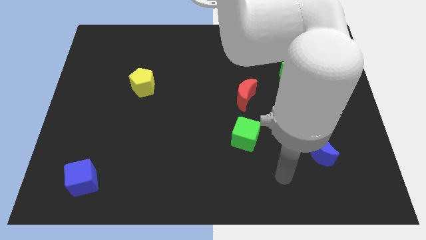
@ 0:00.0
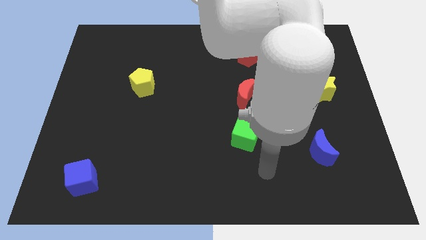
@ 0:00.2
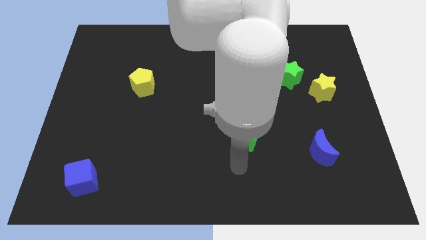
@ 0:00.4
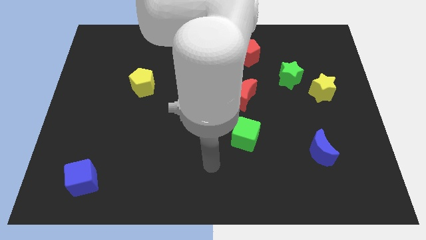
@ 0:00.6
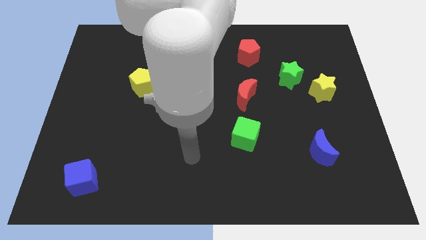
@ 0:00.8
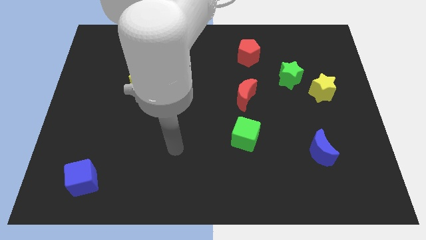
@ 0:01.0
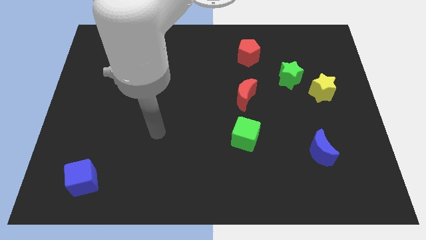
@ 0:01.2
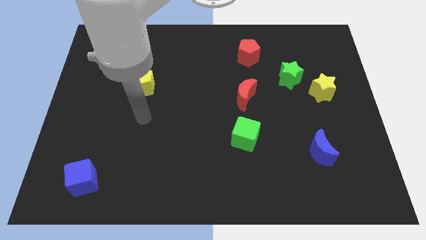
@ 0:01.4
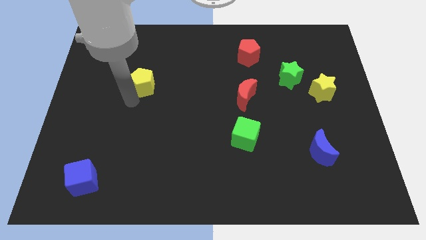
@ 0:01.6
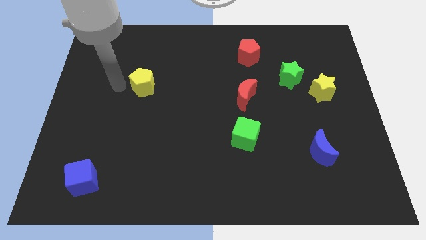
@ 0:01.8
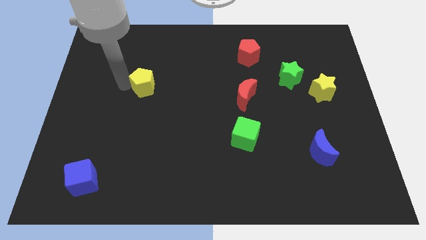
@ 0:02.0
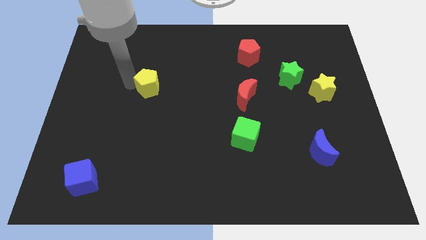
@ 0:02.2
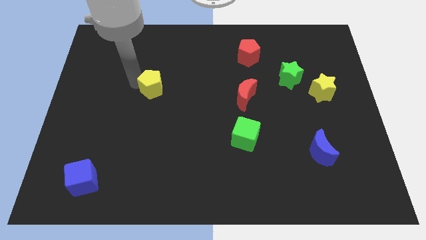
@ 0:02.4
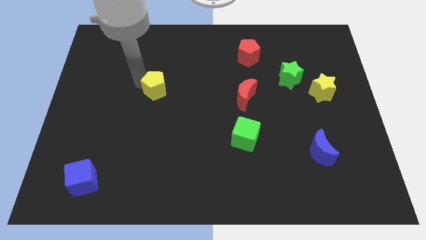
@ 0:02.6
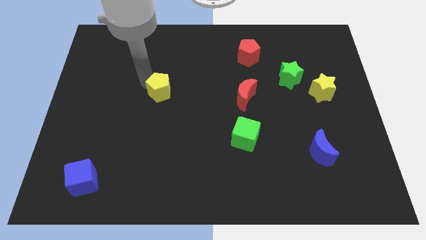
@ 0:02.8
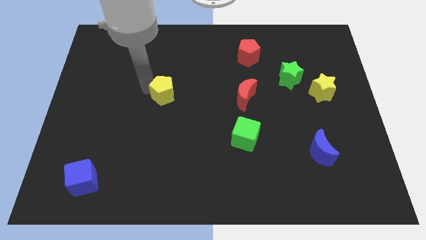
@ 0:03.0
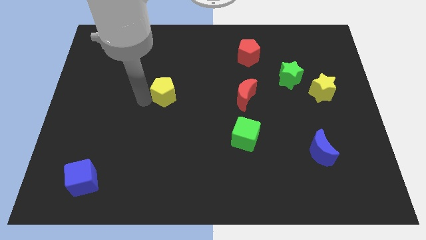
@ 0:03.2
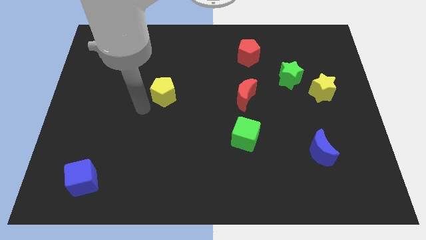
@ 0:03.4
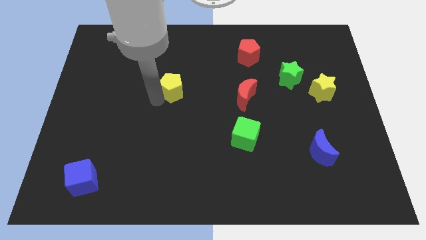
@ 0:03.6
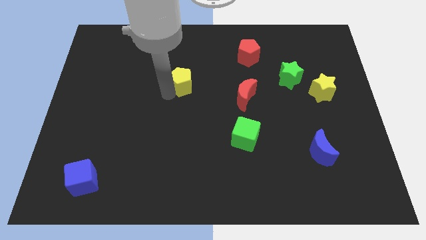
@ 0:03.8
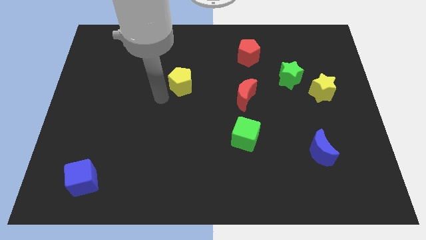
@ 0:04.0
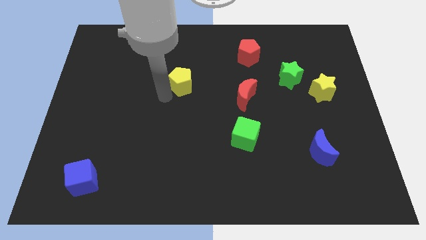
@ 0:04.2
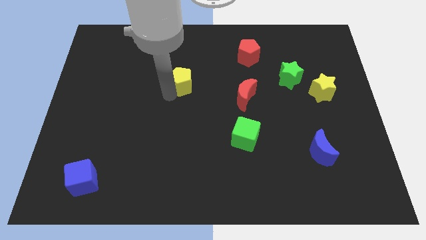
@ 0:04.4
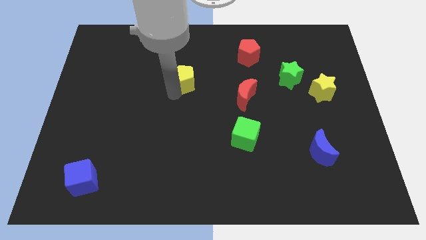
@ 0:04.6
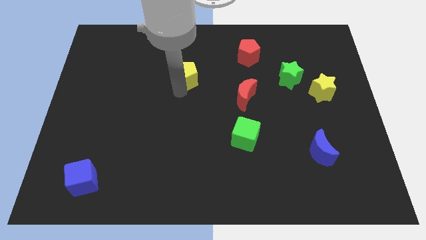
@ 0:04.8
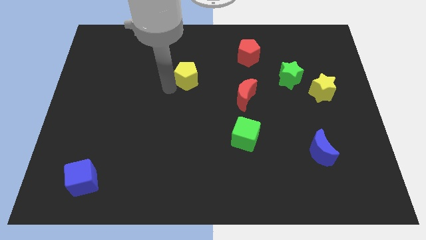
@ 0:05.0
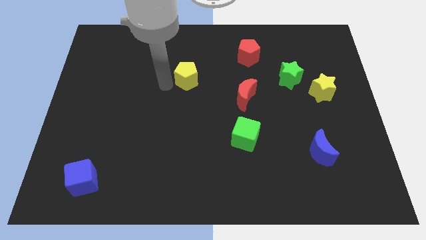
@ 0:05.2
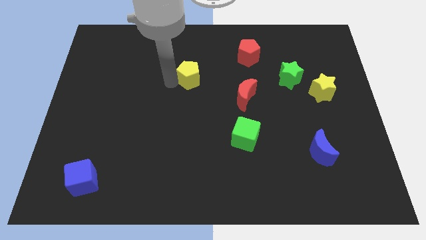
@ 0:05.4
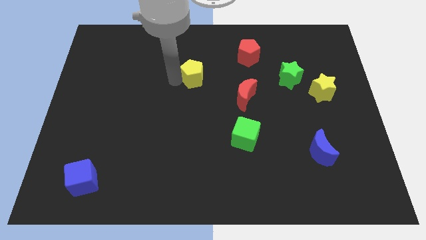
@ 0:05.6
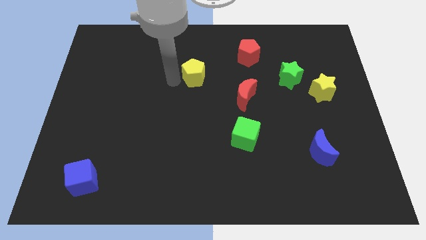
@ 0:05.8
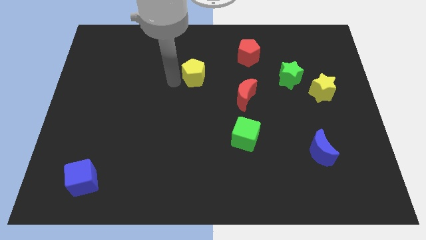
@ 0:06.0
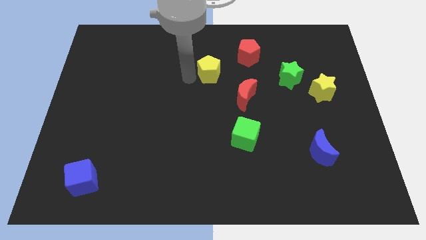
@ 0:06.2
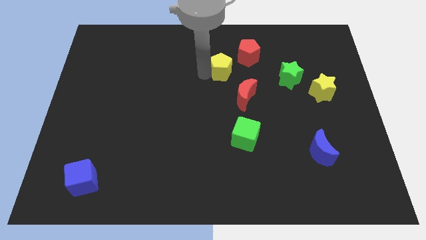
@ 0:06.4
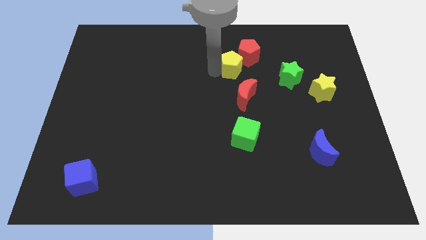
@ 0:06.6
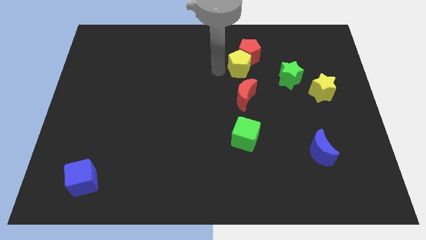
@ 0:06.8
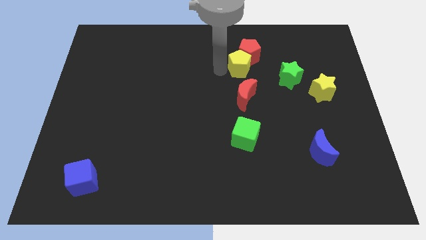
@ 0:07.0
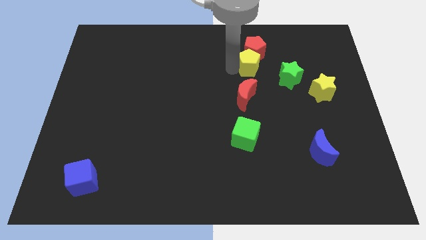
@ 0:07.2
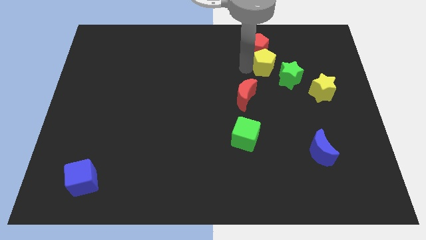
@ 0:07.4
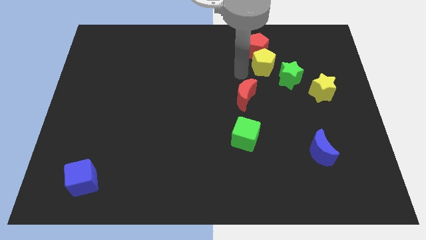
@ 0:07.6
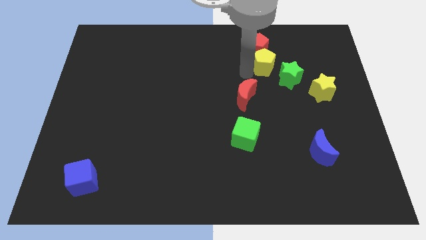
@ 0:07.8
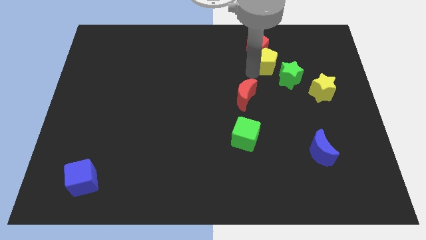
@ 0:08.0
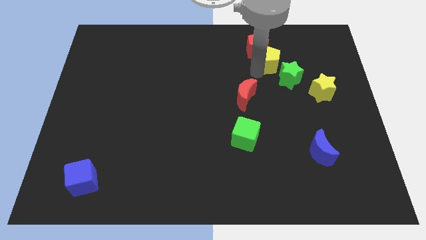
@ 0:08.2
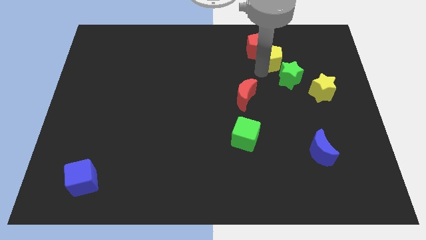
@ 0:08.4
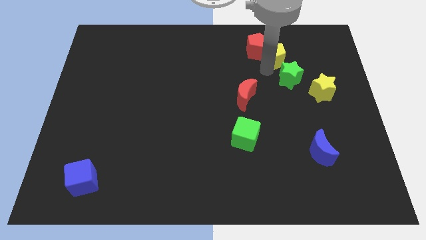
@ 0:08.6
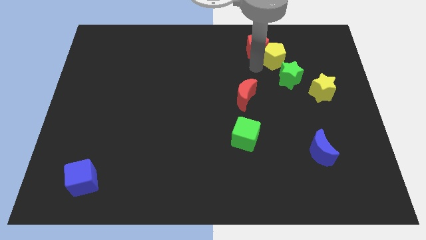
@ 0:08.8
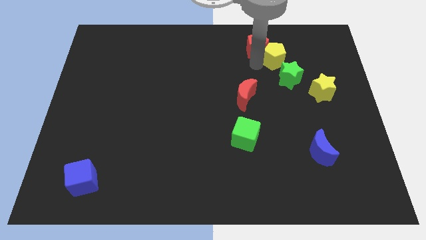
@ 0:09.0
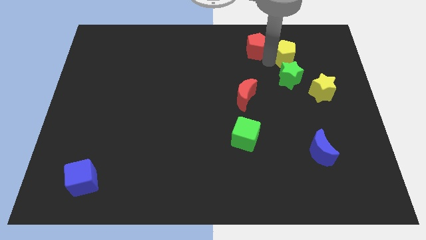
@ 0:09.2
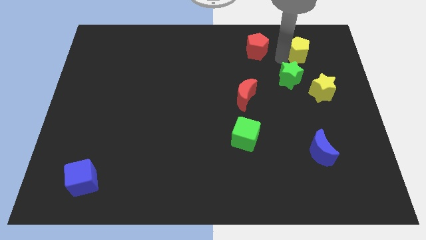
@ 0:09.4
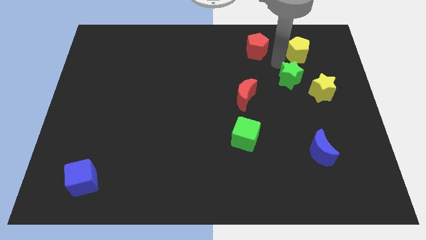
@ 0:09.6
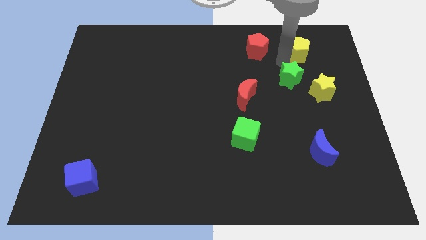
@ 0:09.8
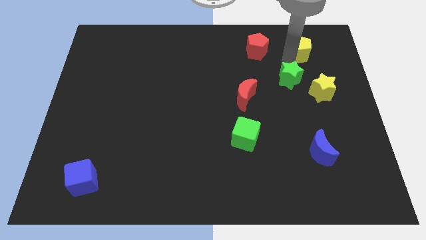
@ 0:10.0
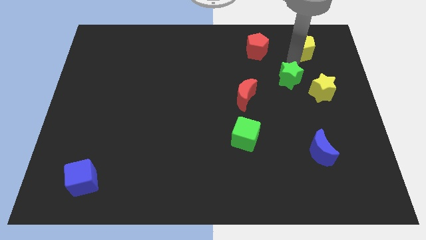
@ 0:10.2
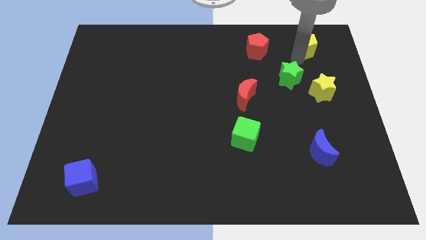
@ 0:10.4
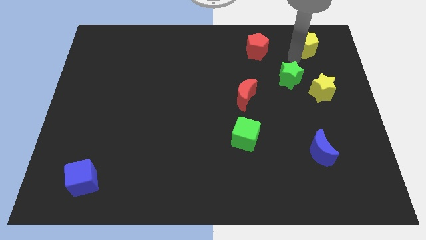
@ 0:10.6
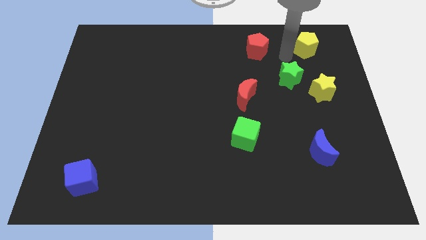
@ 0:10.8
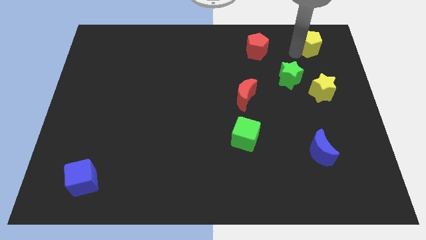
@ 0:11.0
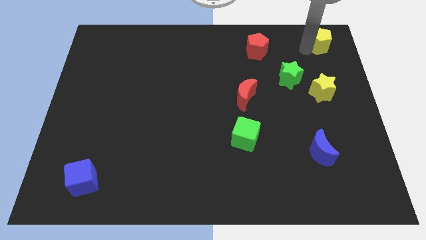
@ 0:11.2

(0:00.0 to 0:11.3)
put the yellow pentagon to the upper right corner
